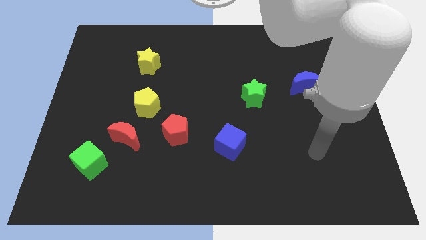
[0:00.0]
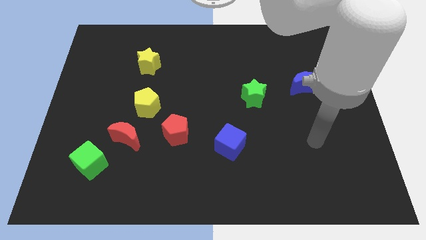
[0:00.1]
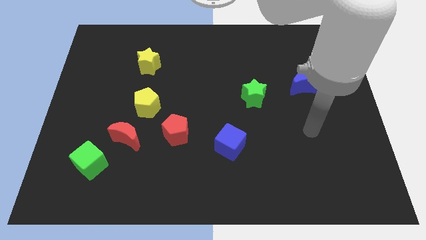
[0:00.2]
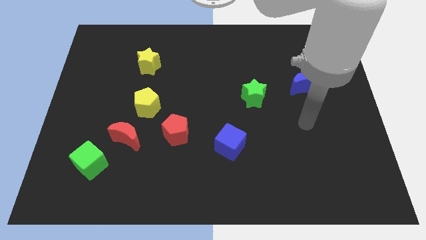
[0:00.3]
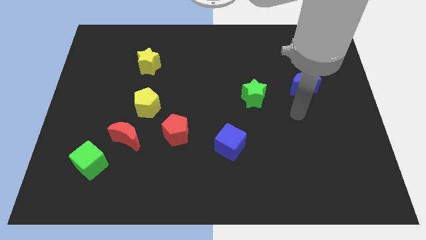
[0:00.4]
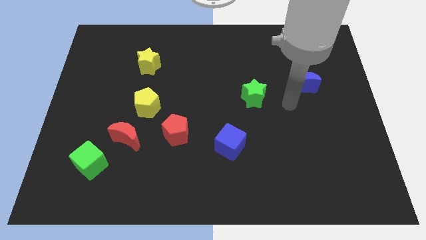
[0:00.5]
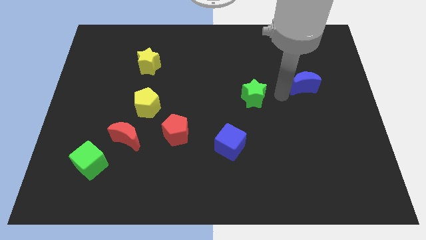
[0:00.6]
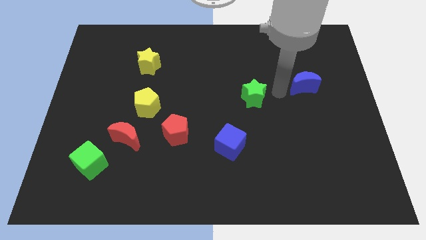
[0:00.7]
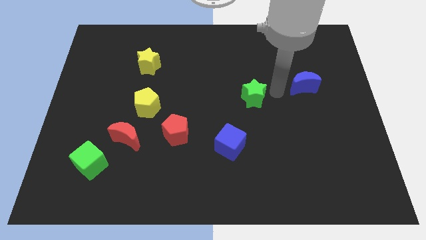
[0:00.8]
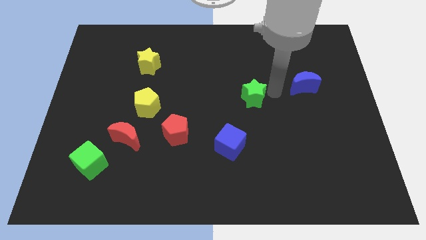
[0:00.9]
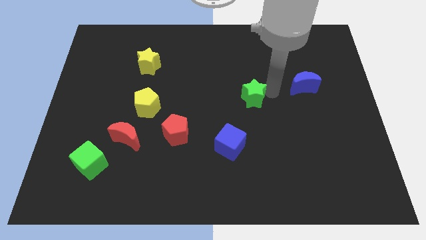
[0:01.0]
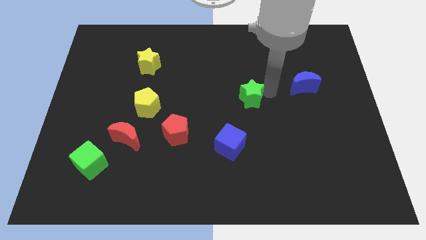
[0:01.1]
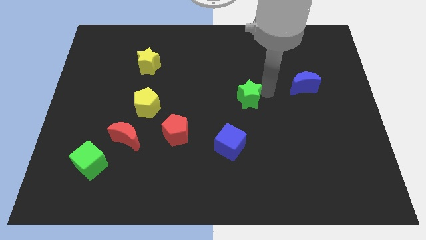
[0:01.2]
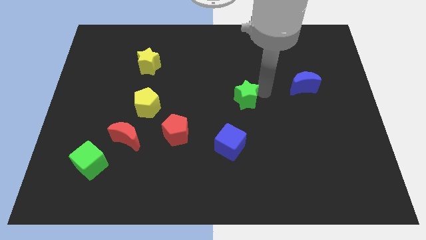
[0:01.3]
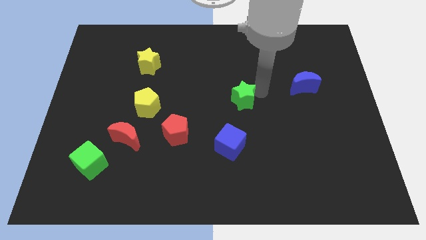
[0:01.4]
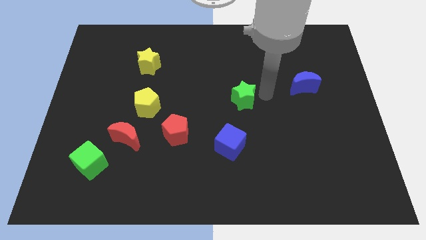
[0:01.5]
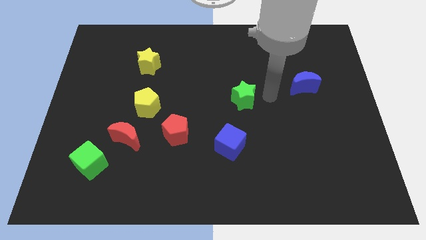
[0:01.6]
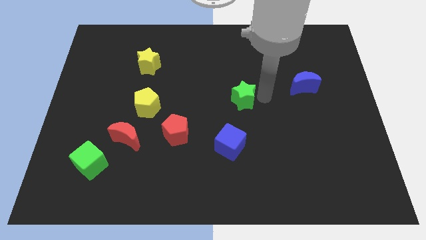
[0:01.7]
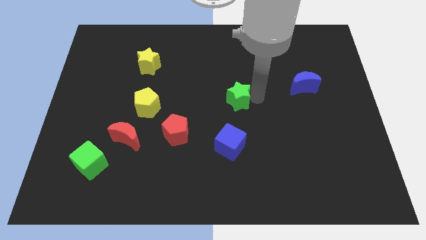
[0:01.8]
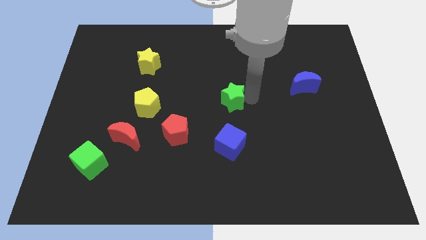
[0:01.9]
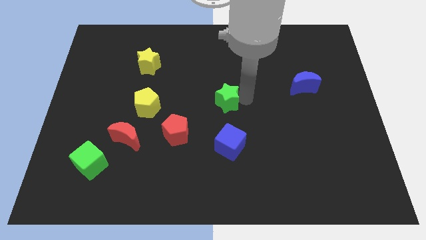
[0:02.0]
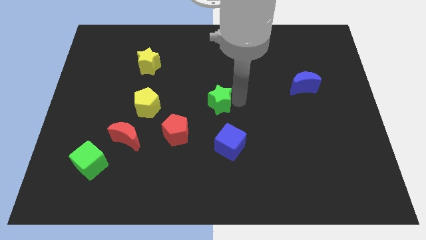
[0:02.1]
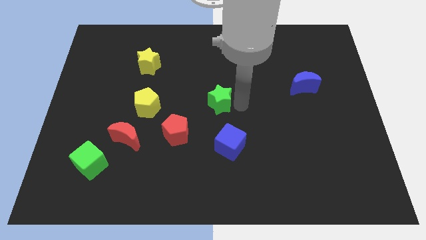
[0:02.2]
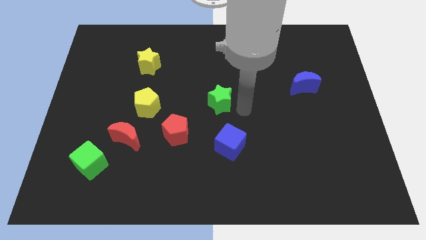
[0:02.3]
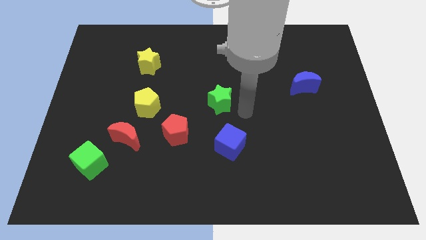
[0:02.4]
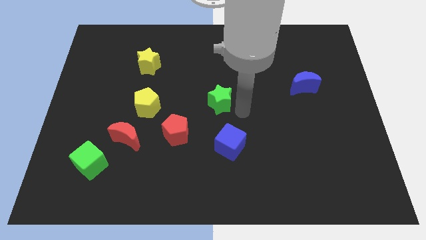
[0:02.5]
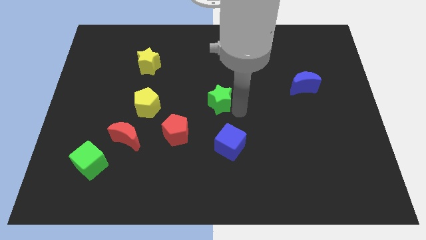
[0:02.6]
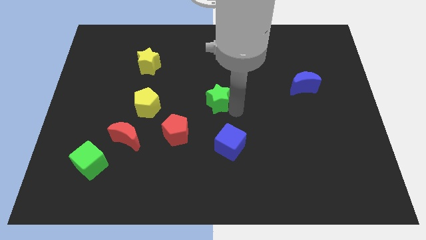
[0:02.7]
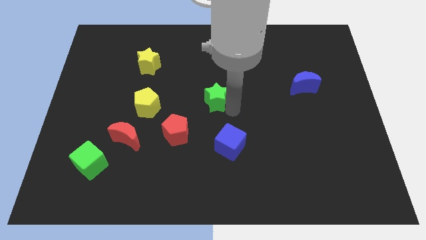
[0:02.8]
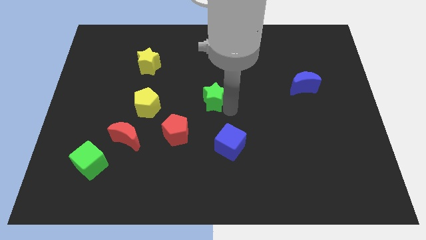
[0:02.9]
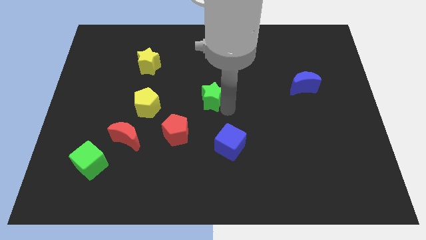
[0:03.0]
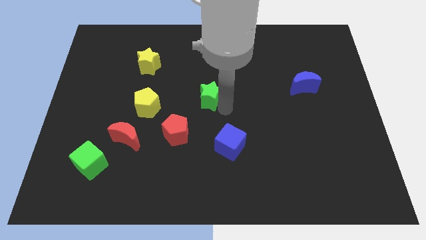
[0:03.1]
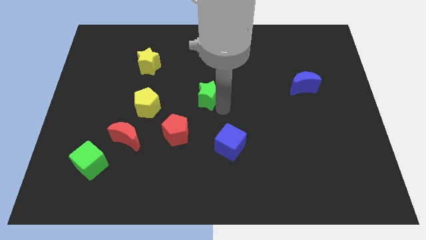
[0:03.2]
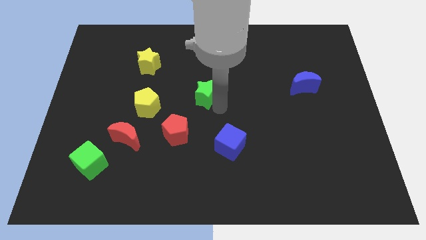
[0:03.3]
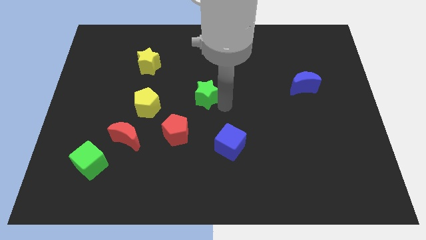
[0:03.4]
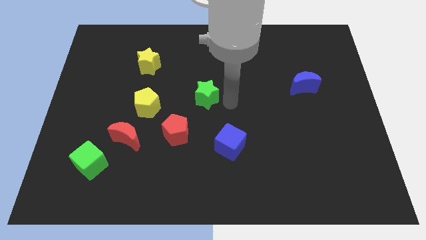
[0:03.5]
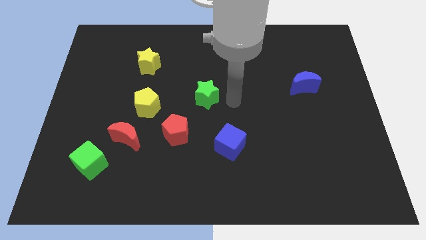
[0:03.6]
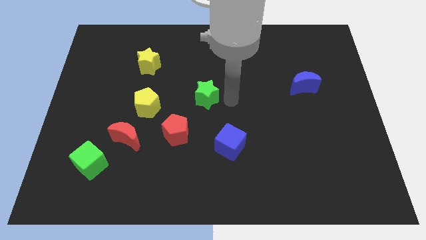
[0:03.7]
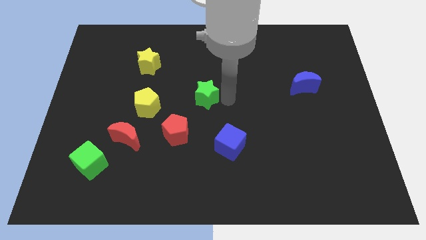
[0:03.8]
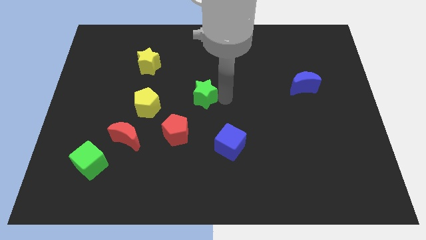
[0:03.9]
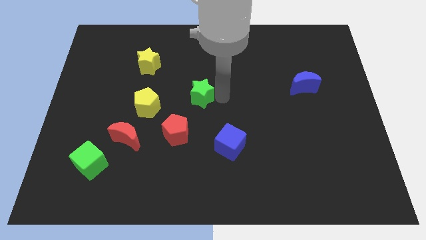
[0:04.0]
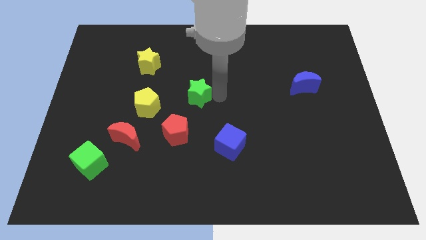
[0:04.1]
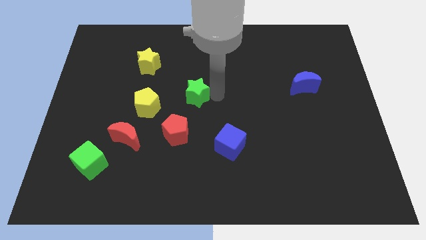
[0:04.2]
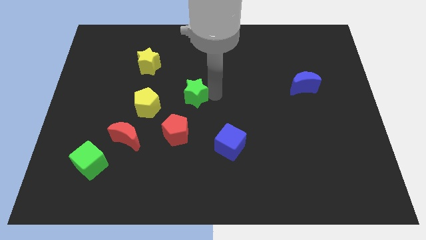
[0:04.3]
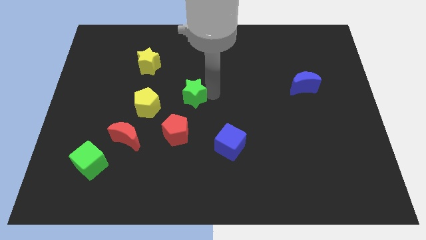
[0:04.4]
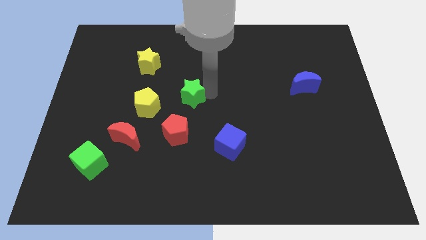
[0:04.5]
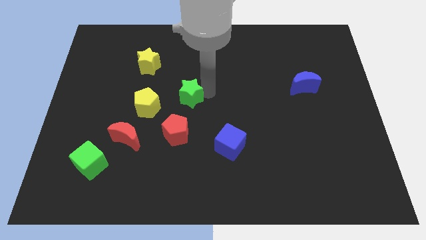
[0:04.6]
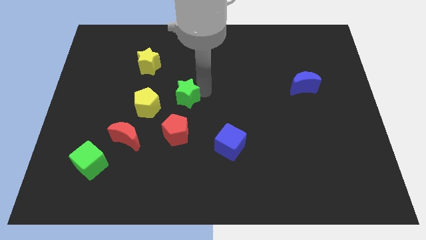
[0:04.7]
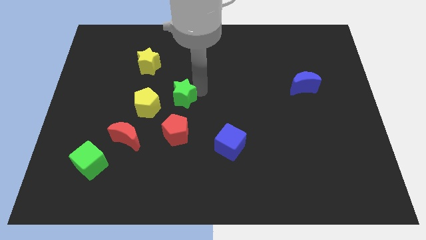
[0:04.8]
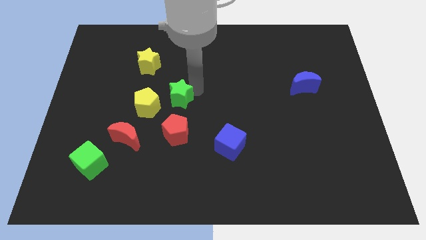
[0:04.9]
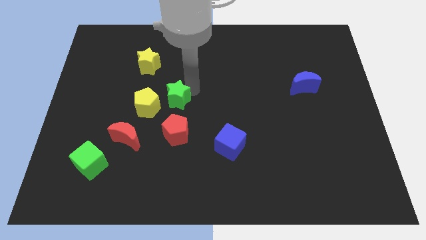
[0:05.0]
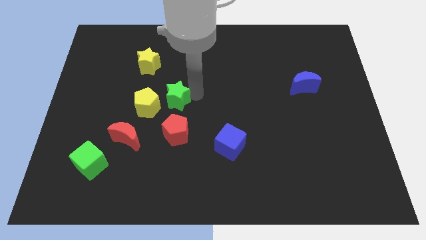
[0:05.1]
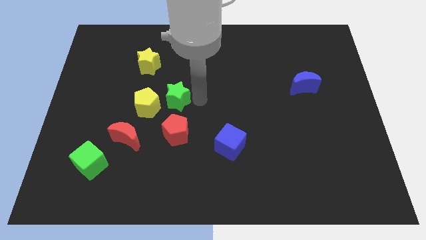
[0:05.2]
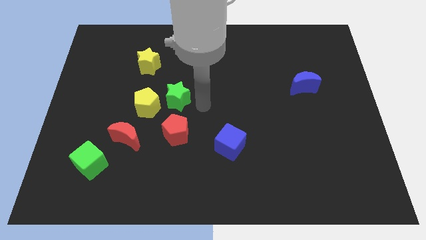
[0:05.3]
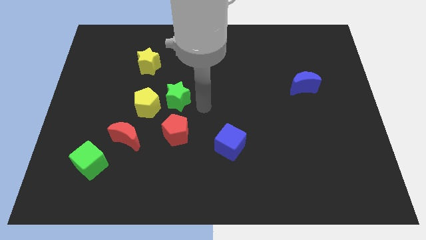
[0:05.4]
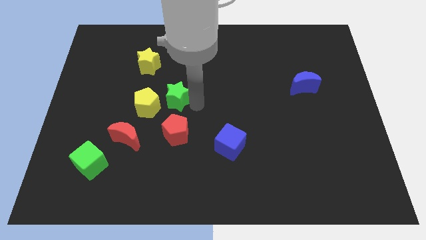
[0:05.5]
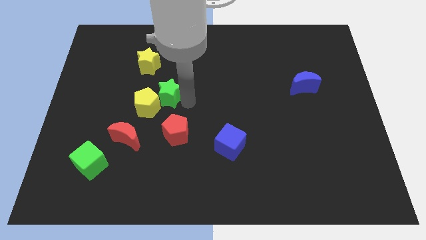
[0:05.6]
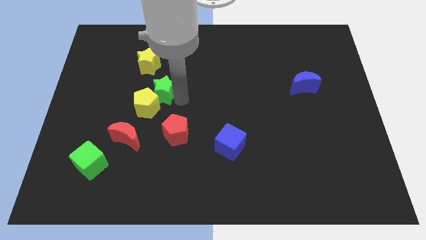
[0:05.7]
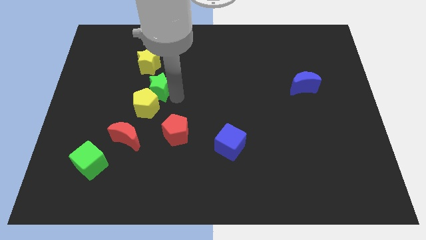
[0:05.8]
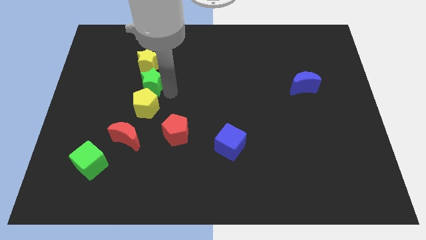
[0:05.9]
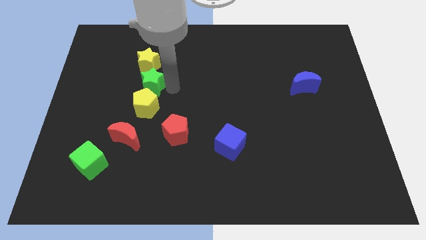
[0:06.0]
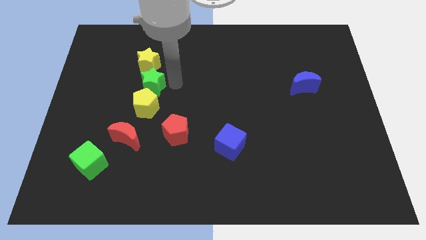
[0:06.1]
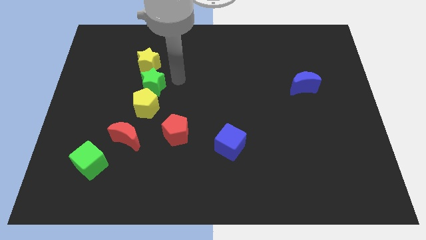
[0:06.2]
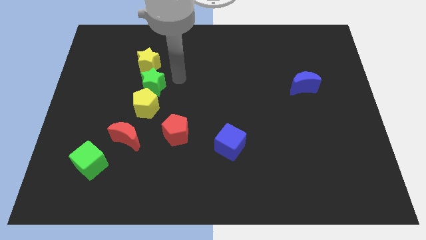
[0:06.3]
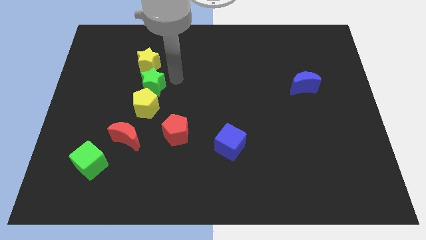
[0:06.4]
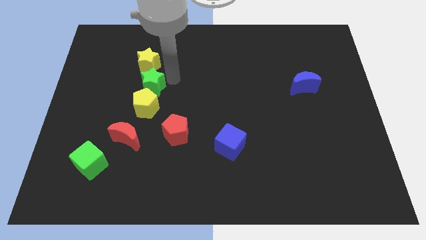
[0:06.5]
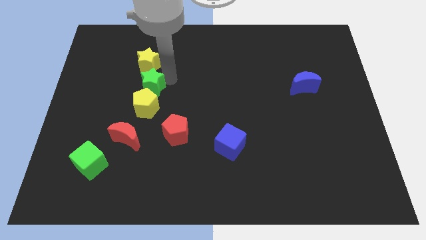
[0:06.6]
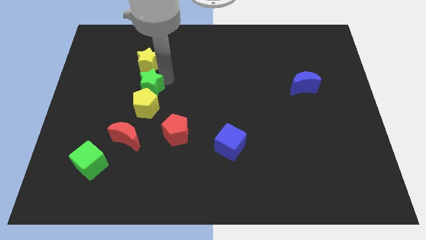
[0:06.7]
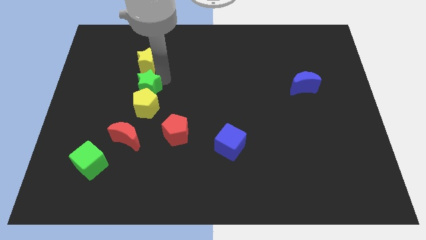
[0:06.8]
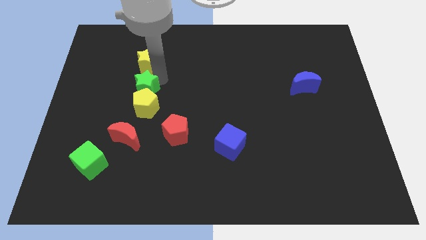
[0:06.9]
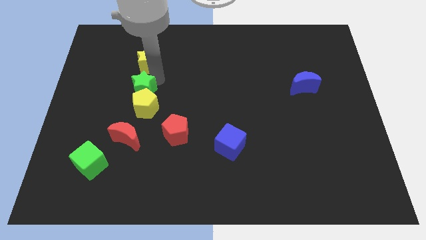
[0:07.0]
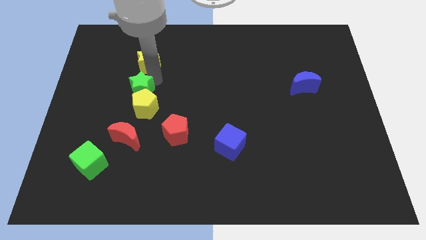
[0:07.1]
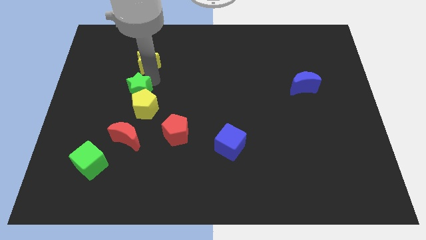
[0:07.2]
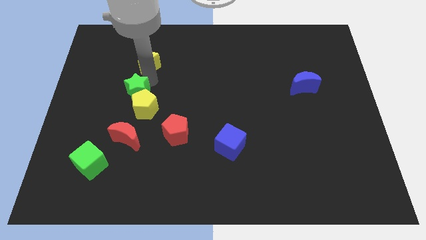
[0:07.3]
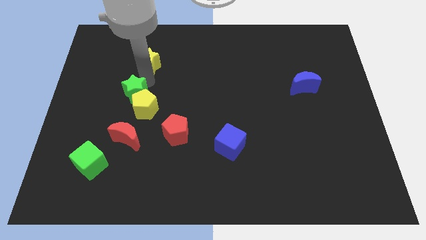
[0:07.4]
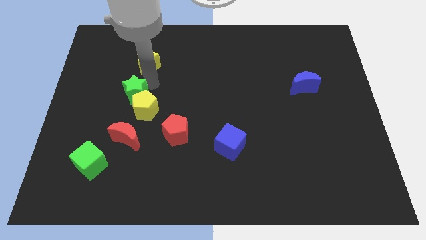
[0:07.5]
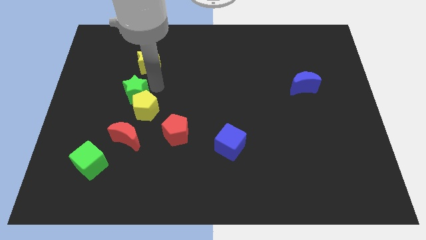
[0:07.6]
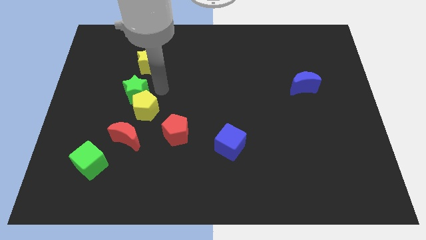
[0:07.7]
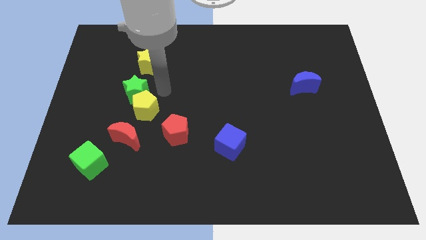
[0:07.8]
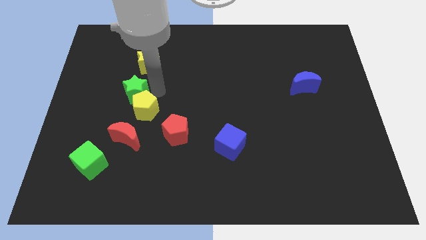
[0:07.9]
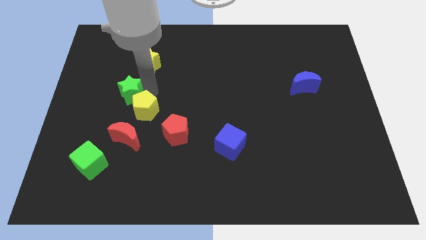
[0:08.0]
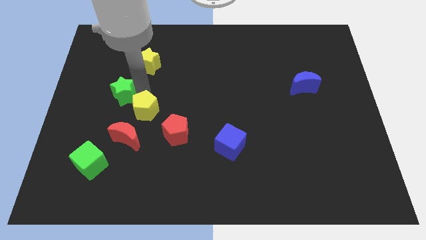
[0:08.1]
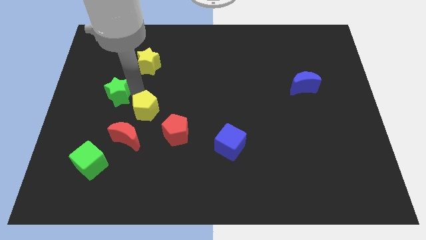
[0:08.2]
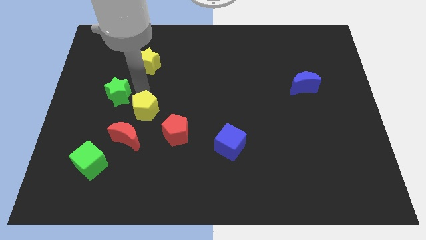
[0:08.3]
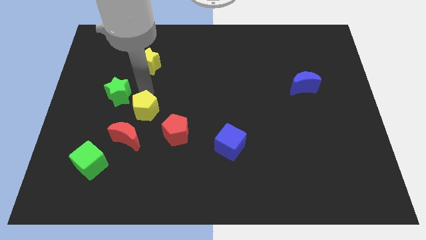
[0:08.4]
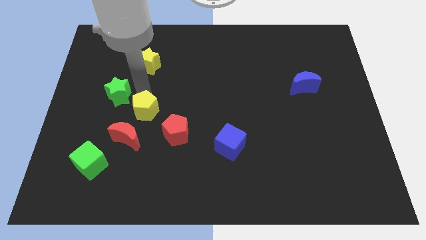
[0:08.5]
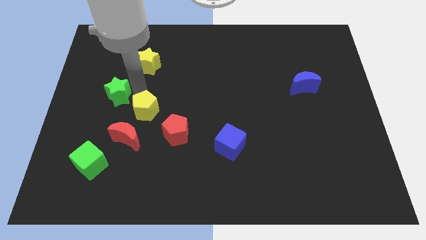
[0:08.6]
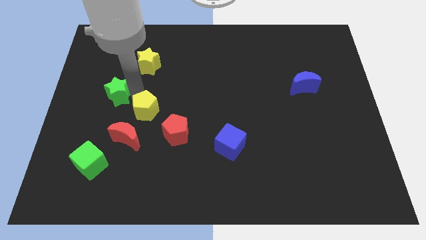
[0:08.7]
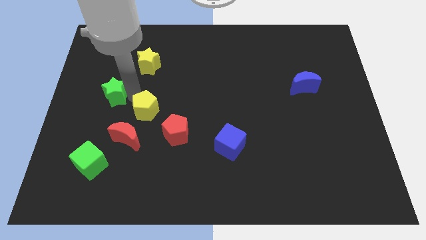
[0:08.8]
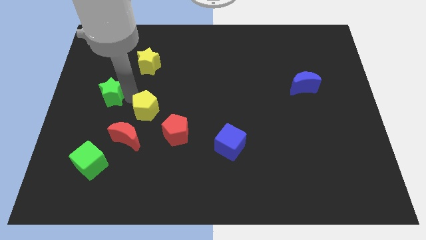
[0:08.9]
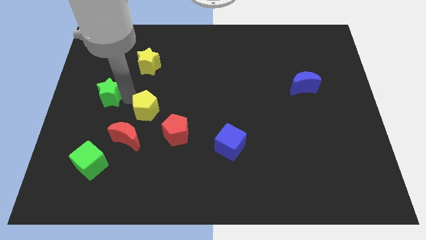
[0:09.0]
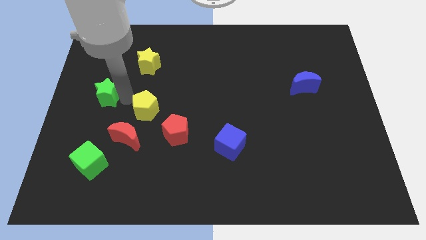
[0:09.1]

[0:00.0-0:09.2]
put the green star to the left side of the board
